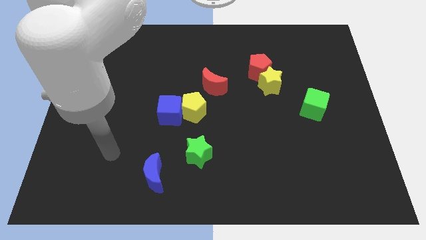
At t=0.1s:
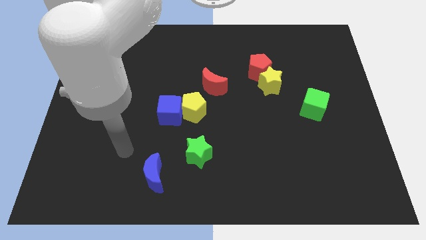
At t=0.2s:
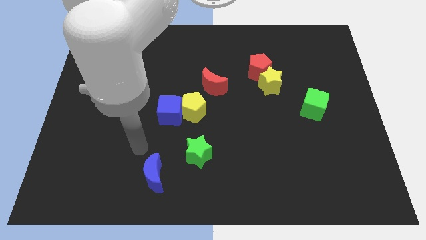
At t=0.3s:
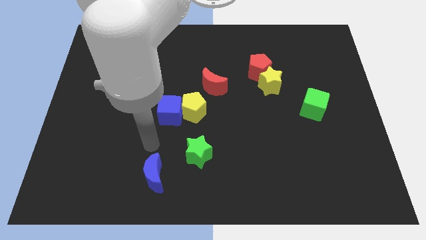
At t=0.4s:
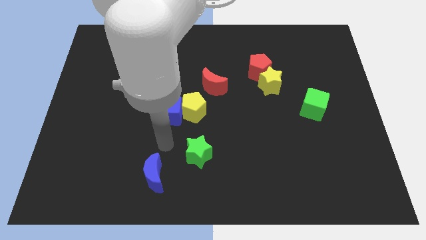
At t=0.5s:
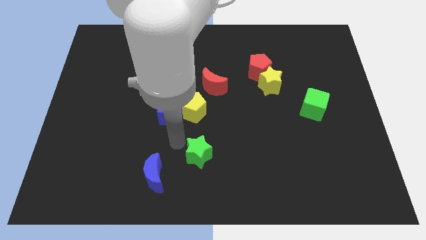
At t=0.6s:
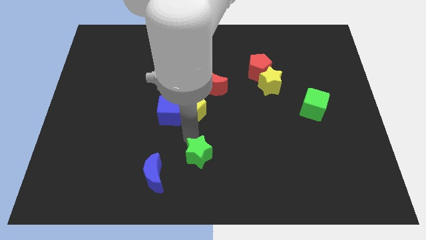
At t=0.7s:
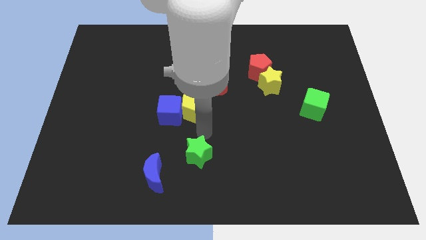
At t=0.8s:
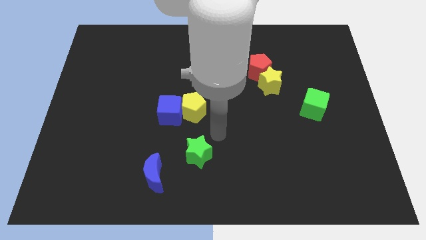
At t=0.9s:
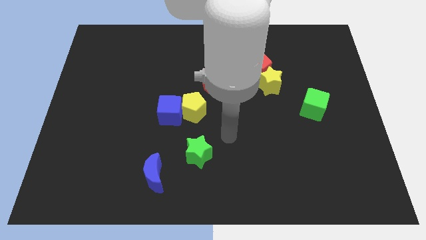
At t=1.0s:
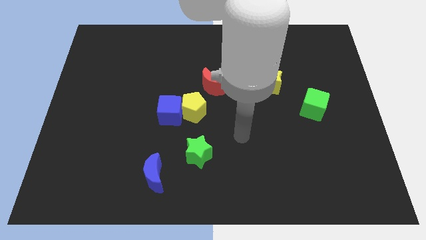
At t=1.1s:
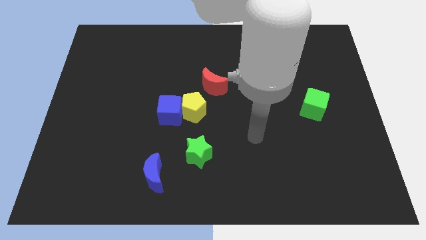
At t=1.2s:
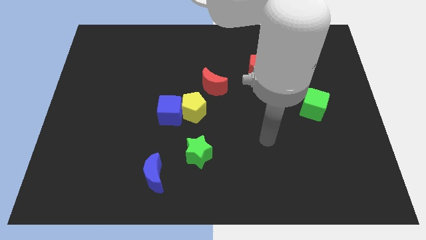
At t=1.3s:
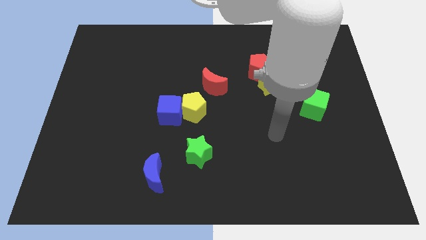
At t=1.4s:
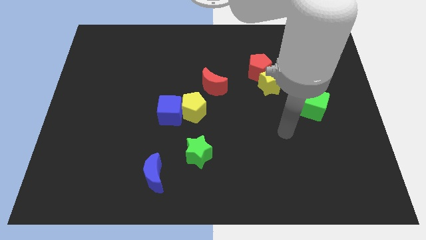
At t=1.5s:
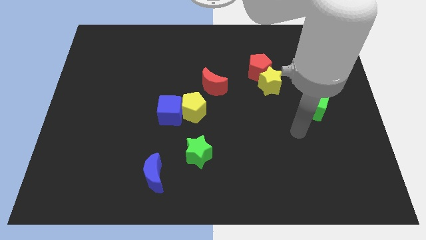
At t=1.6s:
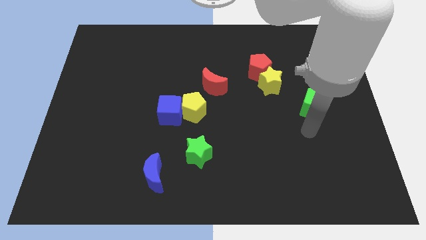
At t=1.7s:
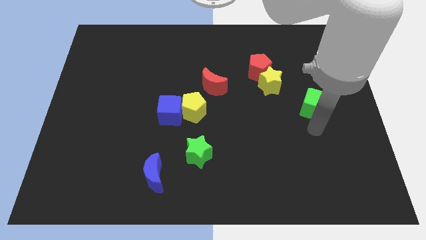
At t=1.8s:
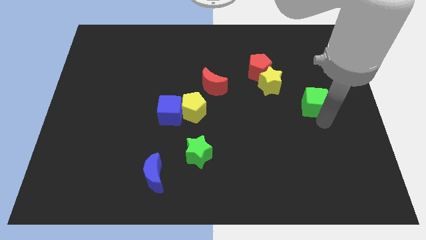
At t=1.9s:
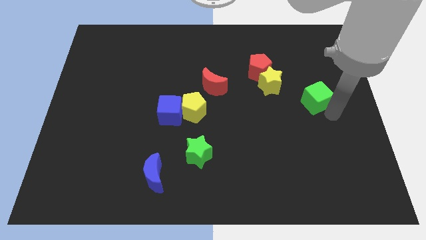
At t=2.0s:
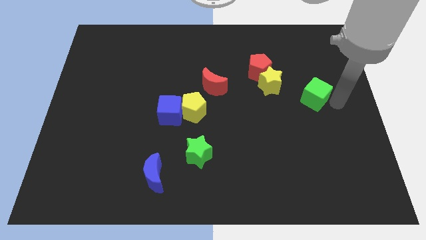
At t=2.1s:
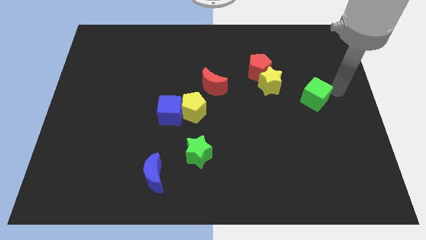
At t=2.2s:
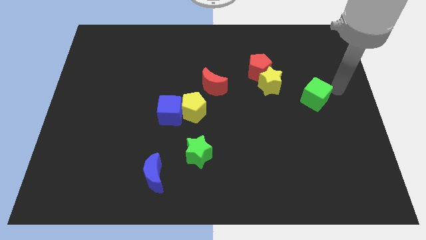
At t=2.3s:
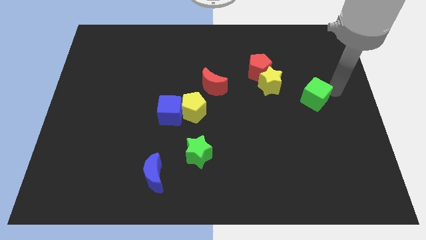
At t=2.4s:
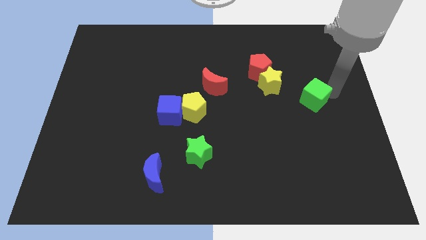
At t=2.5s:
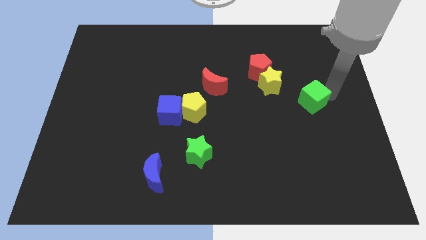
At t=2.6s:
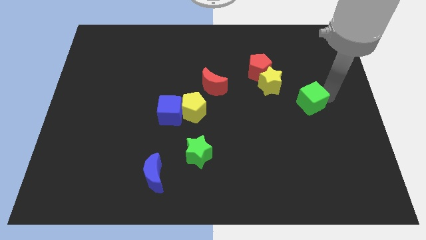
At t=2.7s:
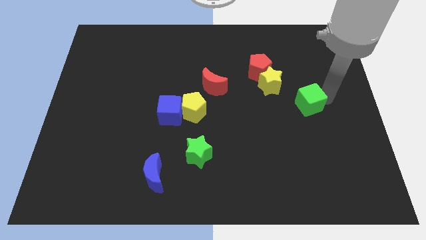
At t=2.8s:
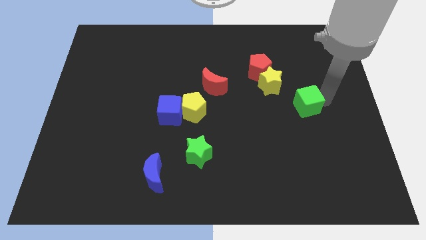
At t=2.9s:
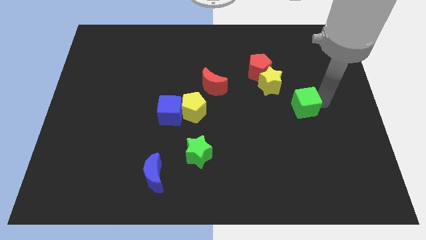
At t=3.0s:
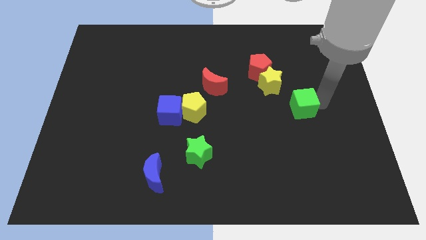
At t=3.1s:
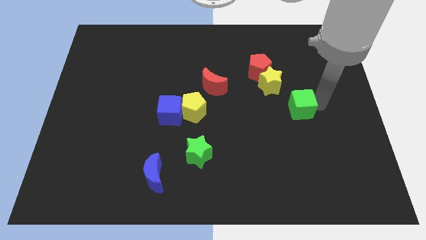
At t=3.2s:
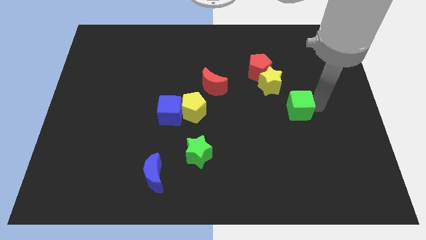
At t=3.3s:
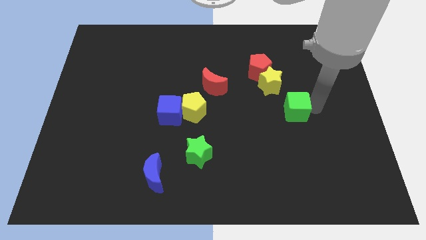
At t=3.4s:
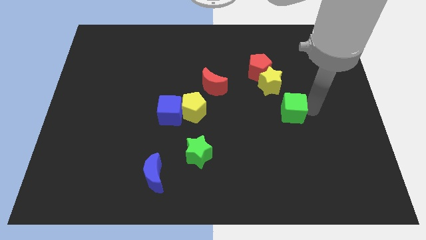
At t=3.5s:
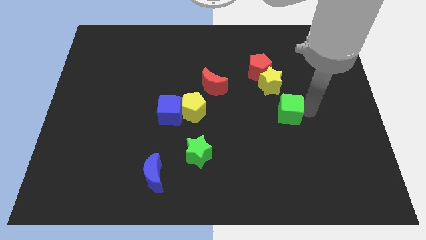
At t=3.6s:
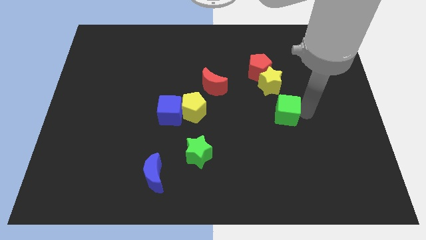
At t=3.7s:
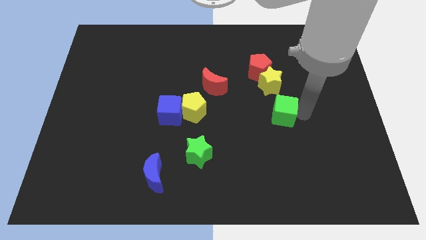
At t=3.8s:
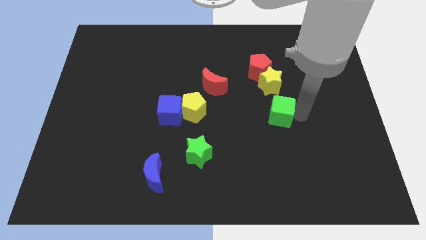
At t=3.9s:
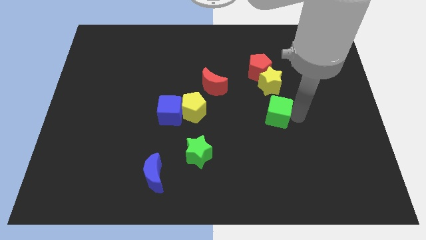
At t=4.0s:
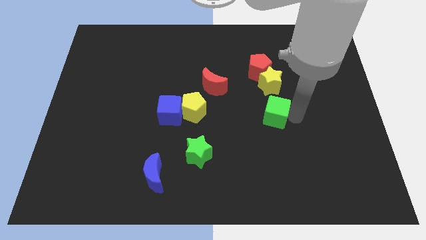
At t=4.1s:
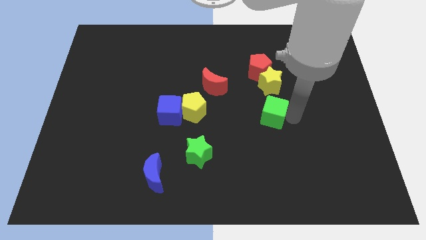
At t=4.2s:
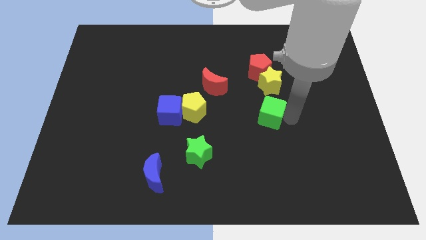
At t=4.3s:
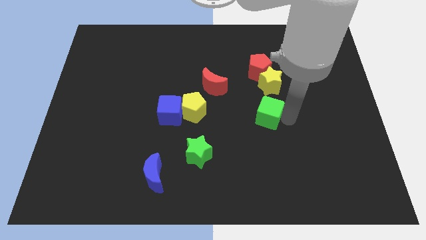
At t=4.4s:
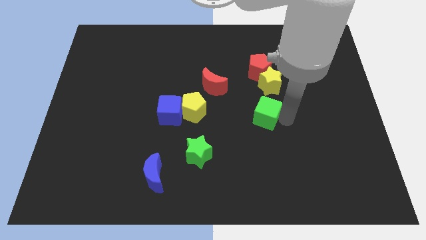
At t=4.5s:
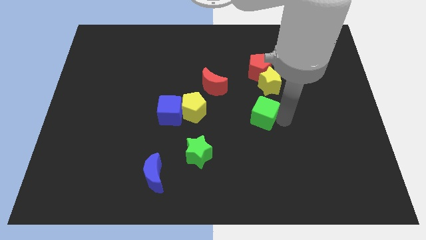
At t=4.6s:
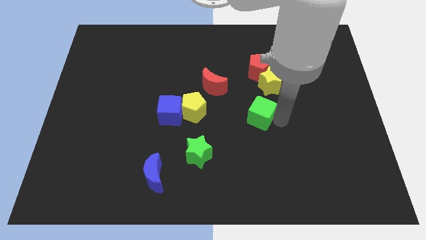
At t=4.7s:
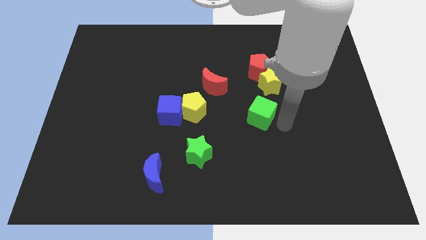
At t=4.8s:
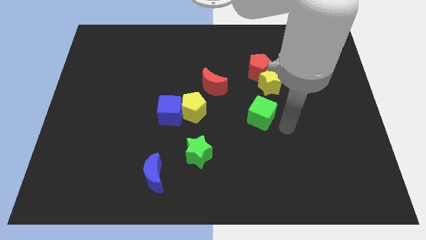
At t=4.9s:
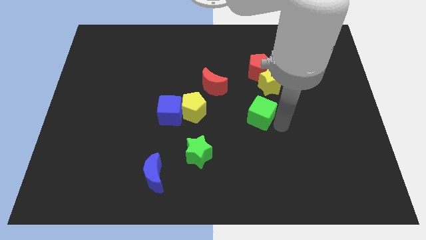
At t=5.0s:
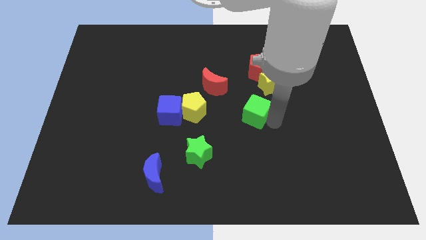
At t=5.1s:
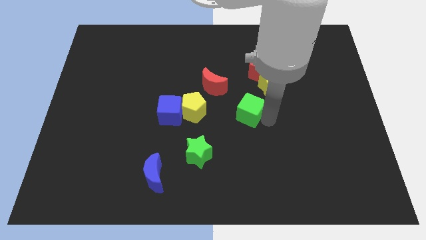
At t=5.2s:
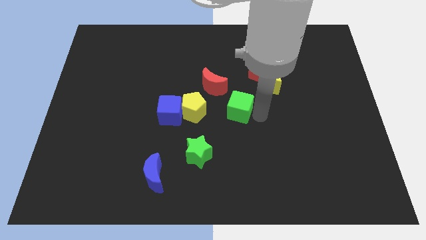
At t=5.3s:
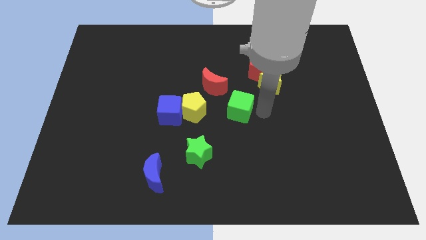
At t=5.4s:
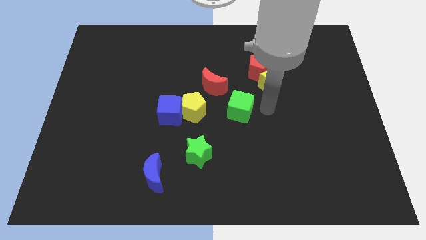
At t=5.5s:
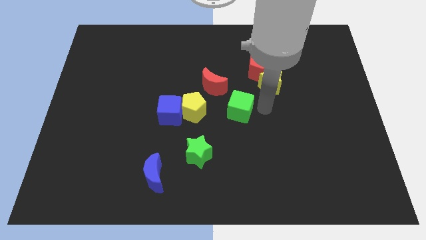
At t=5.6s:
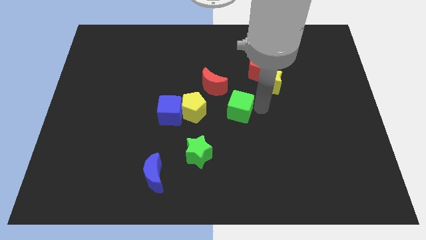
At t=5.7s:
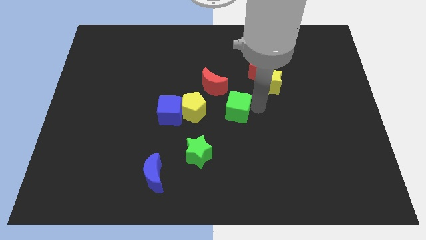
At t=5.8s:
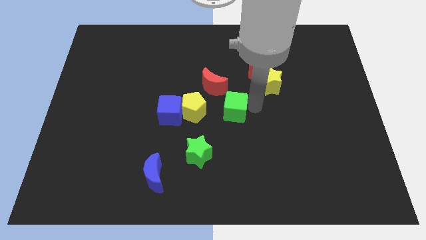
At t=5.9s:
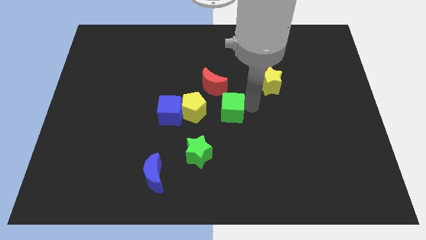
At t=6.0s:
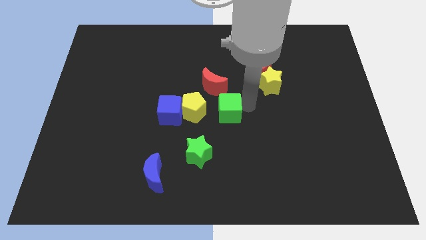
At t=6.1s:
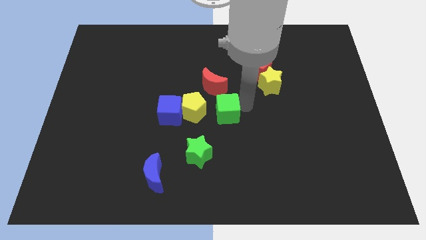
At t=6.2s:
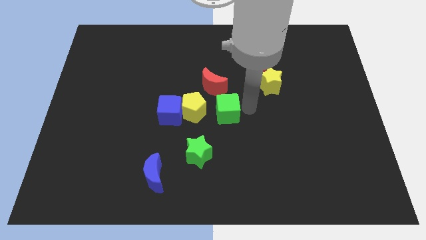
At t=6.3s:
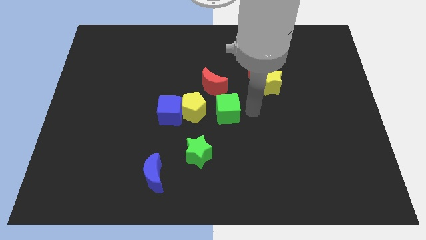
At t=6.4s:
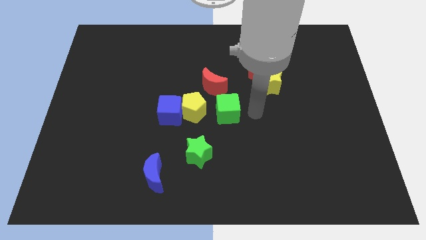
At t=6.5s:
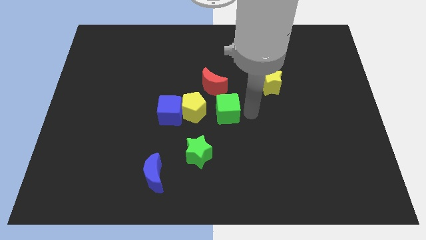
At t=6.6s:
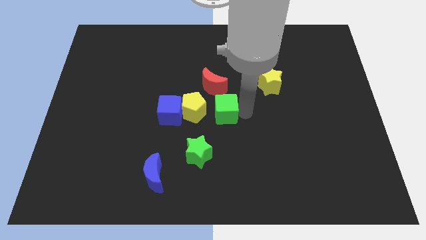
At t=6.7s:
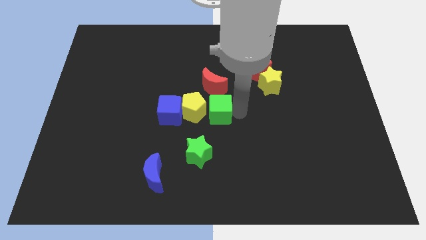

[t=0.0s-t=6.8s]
put the green cube to the yellow pentagon

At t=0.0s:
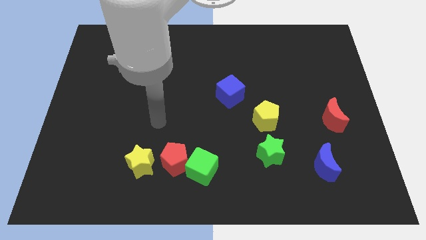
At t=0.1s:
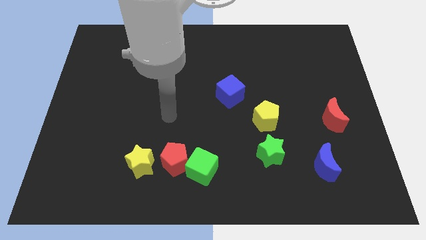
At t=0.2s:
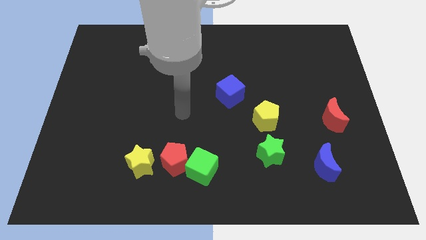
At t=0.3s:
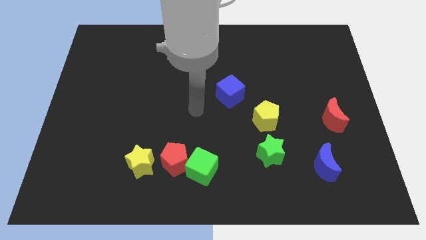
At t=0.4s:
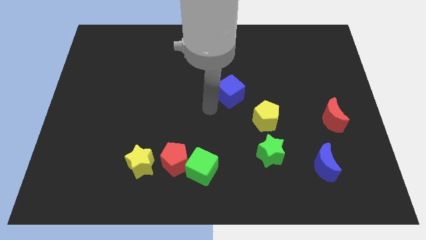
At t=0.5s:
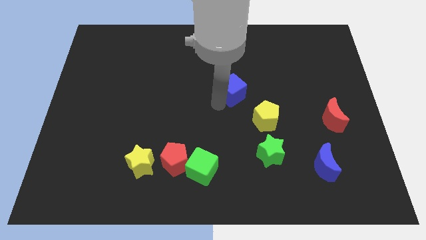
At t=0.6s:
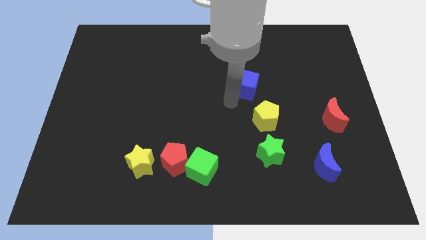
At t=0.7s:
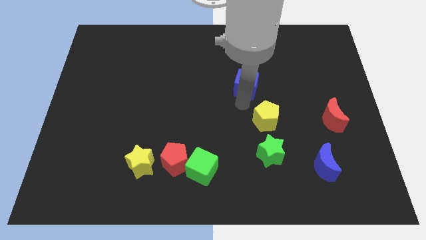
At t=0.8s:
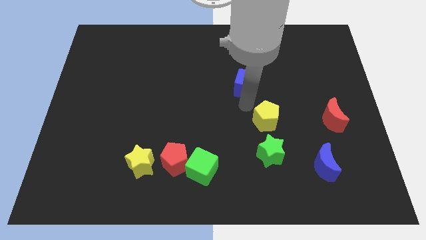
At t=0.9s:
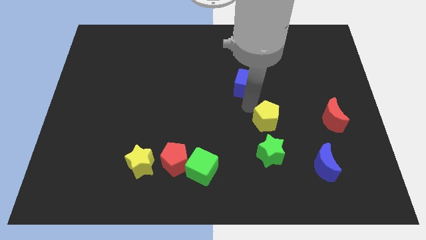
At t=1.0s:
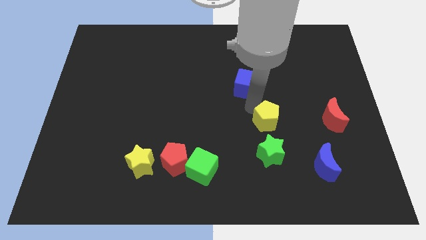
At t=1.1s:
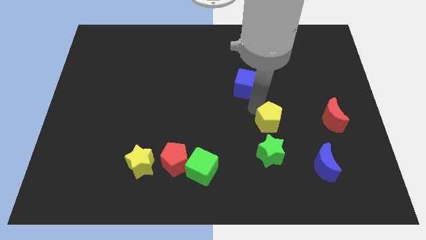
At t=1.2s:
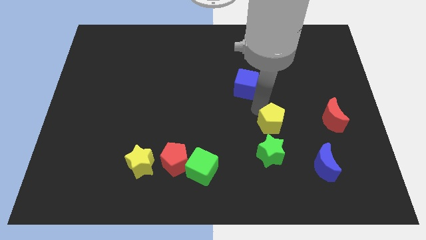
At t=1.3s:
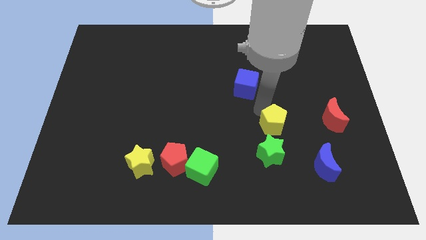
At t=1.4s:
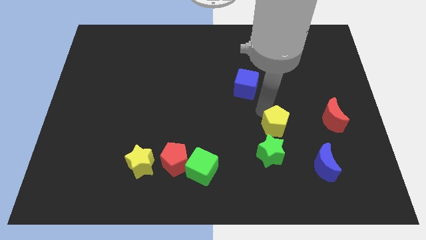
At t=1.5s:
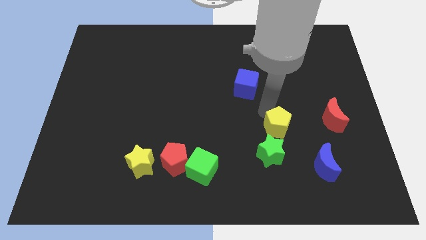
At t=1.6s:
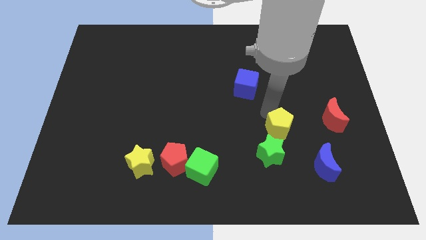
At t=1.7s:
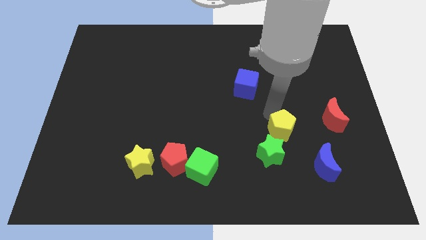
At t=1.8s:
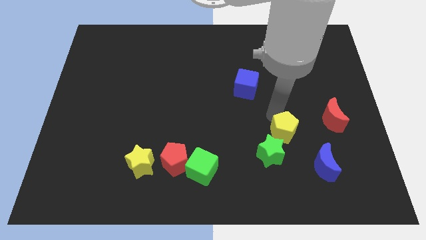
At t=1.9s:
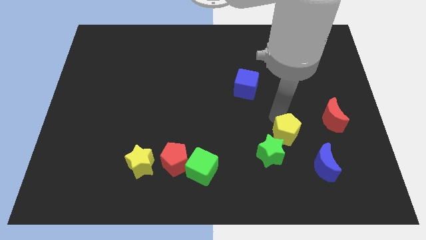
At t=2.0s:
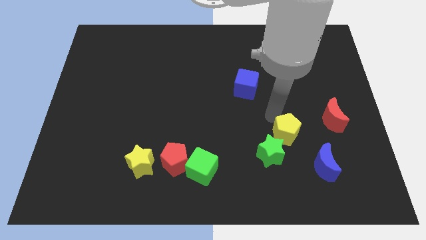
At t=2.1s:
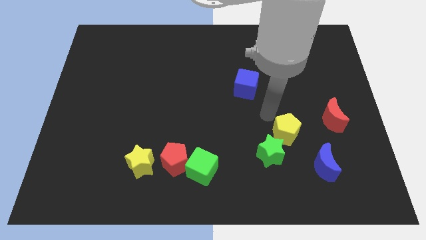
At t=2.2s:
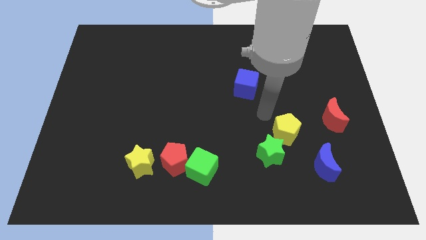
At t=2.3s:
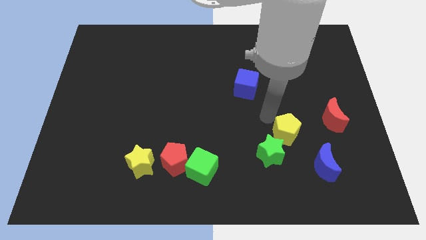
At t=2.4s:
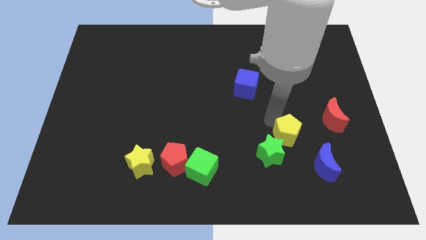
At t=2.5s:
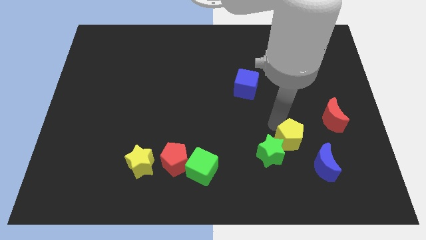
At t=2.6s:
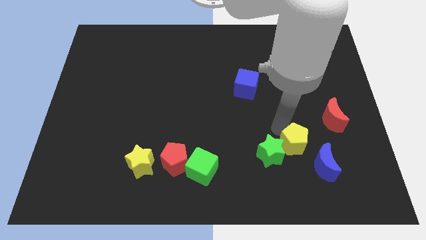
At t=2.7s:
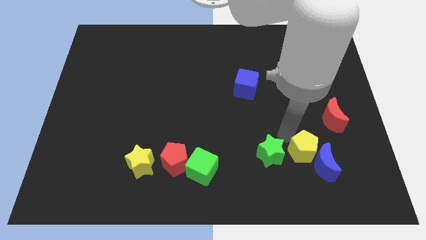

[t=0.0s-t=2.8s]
push the yellow pentagon to the blue moon
